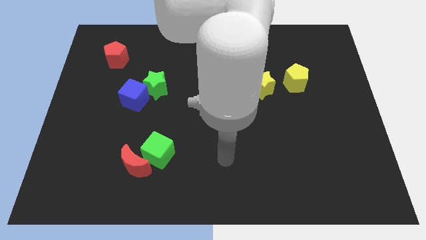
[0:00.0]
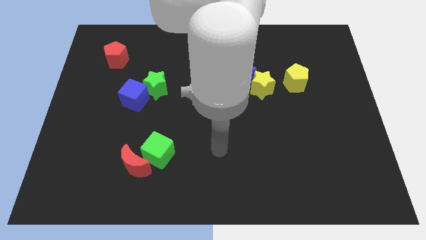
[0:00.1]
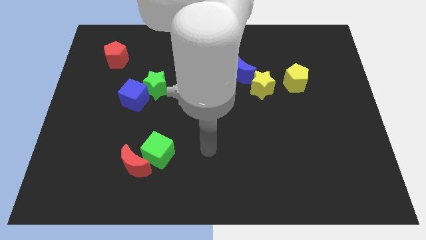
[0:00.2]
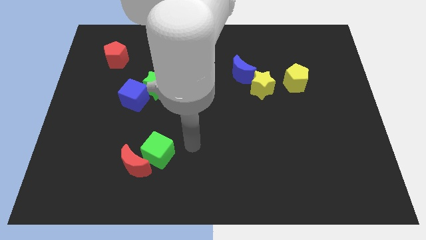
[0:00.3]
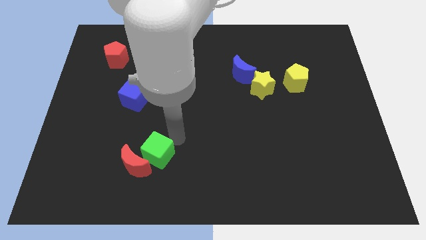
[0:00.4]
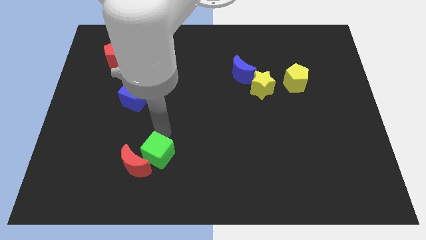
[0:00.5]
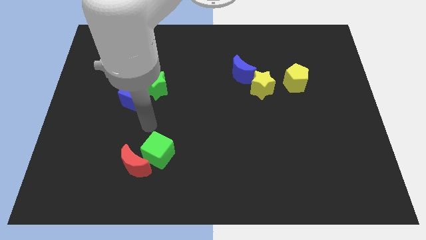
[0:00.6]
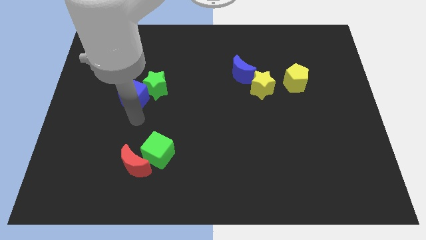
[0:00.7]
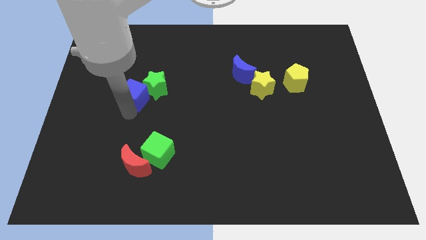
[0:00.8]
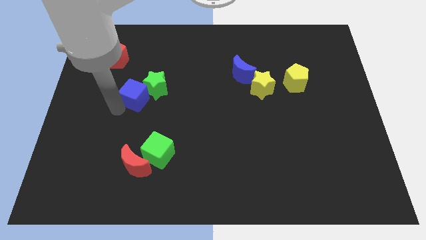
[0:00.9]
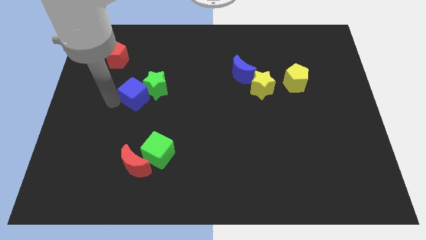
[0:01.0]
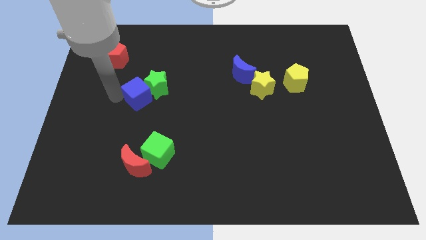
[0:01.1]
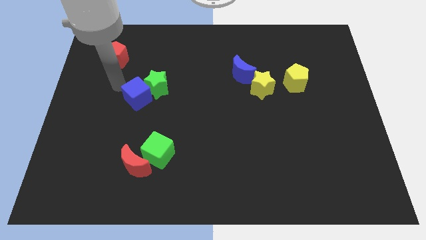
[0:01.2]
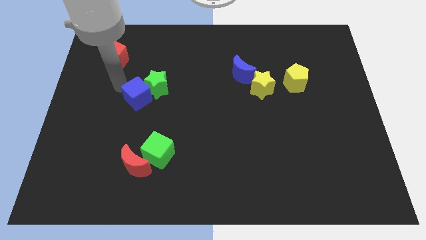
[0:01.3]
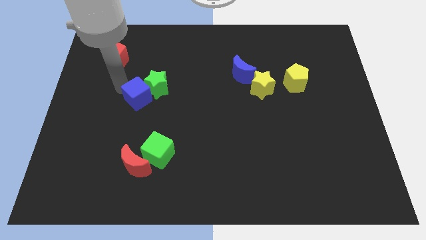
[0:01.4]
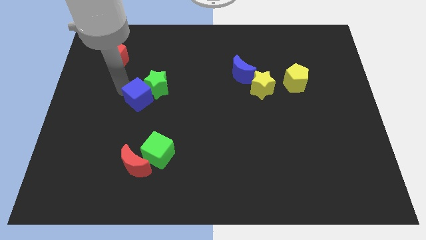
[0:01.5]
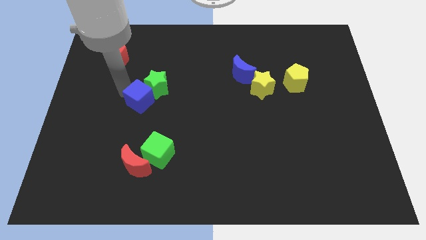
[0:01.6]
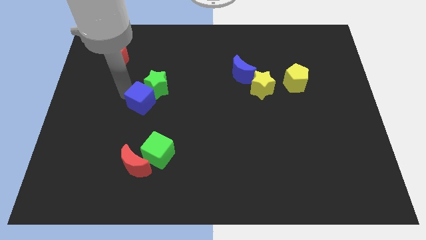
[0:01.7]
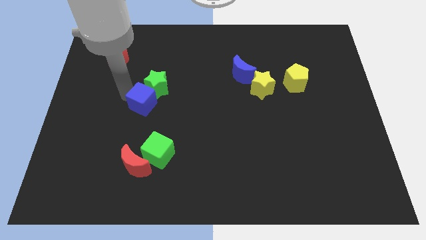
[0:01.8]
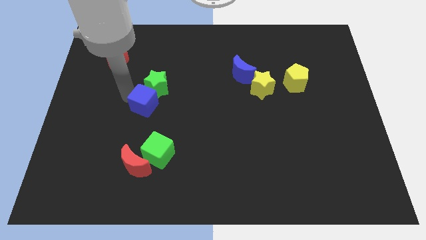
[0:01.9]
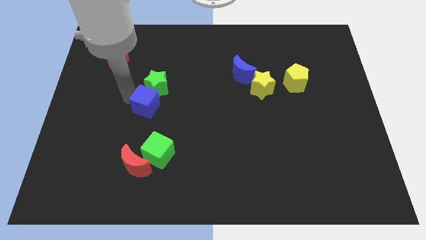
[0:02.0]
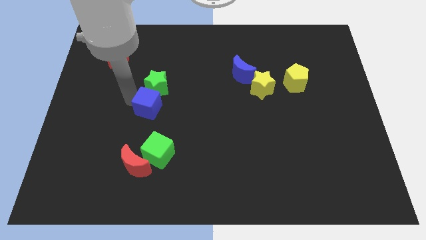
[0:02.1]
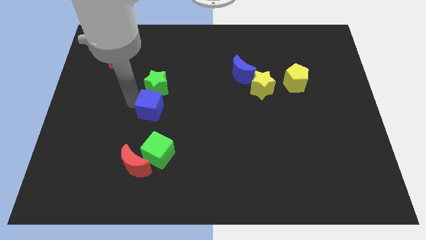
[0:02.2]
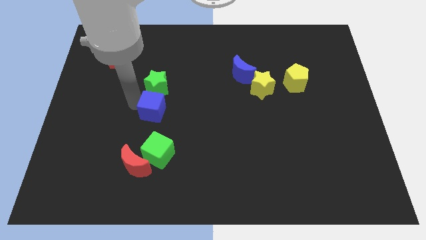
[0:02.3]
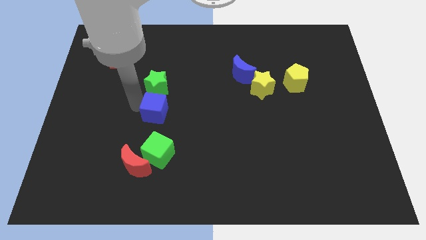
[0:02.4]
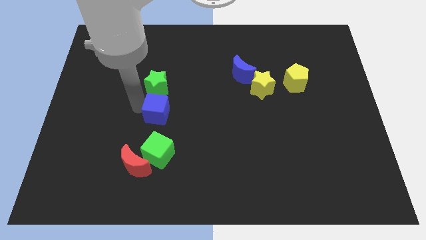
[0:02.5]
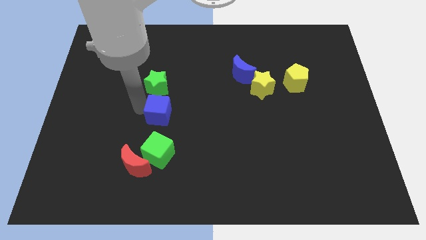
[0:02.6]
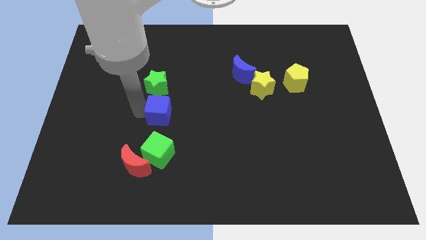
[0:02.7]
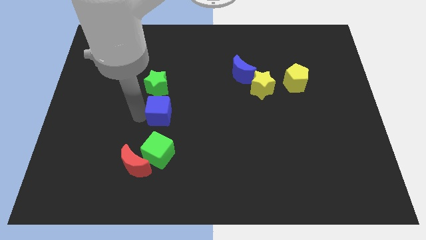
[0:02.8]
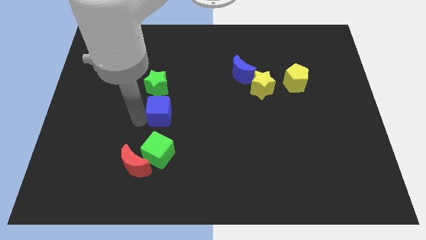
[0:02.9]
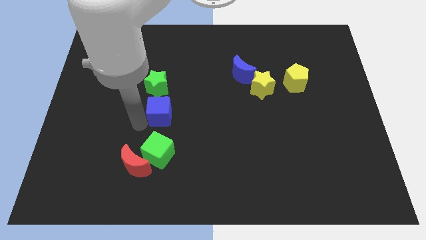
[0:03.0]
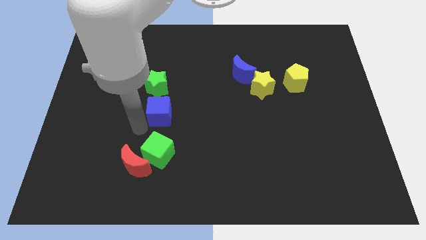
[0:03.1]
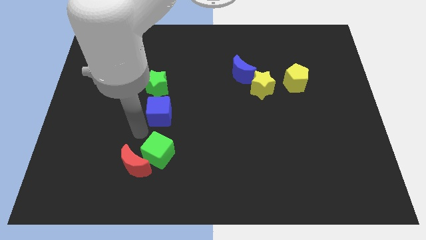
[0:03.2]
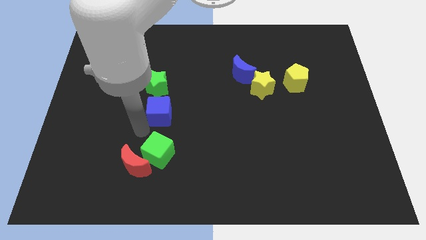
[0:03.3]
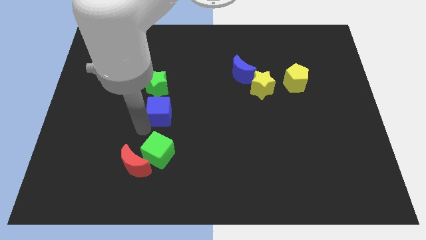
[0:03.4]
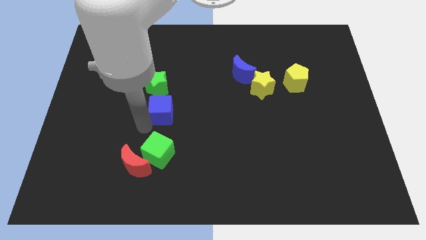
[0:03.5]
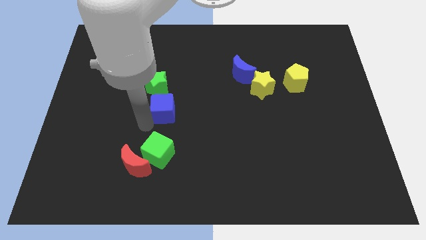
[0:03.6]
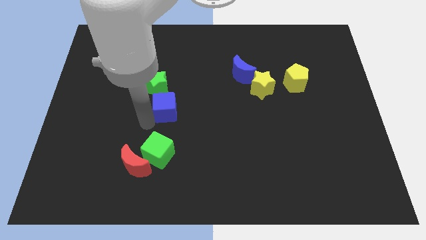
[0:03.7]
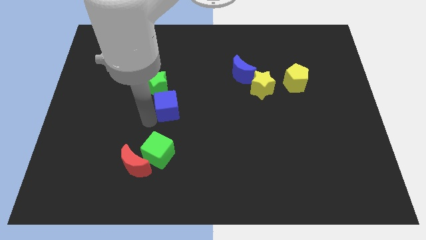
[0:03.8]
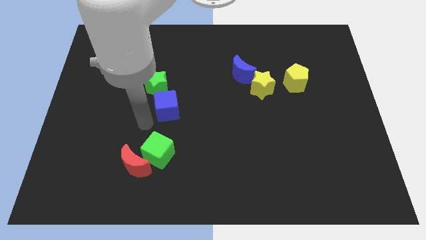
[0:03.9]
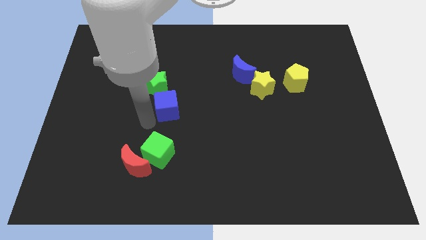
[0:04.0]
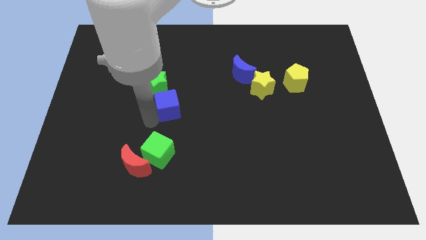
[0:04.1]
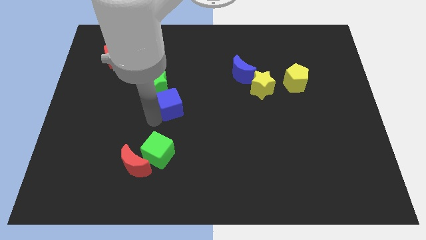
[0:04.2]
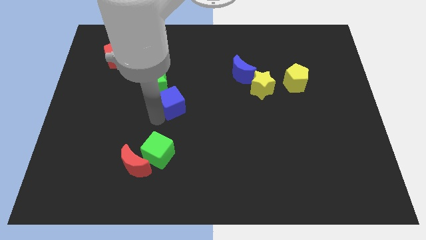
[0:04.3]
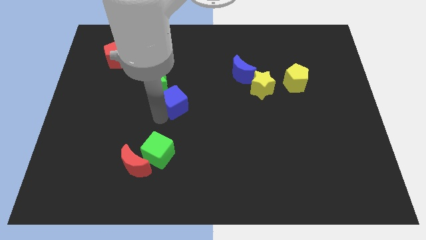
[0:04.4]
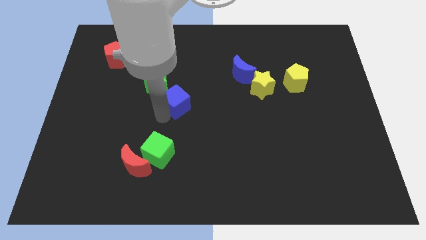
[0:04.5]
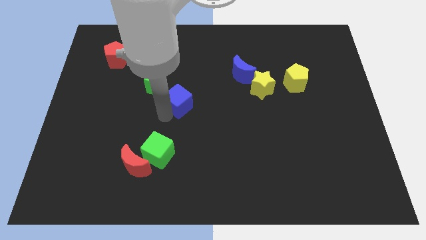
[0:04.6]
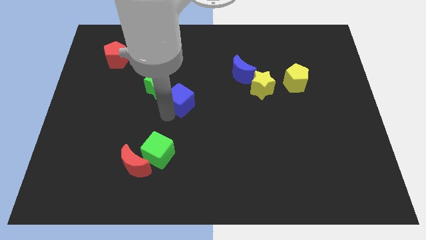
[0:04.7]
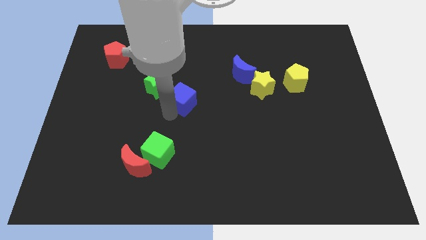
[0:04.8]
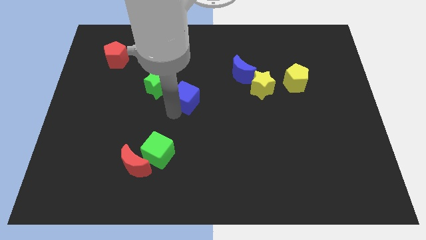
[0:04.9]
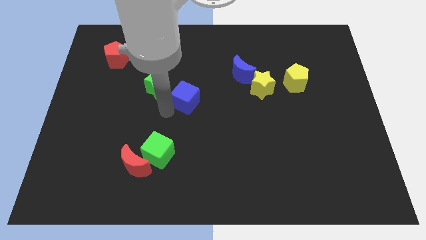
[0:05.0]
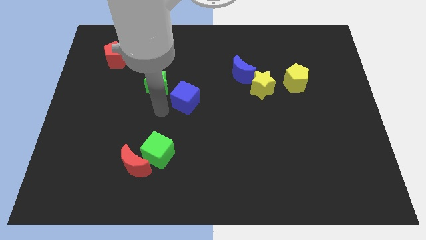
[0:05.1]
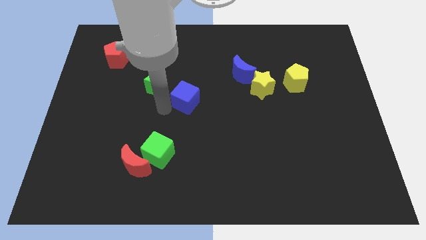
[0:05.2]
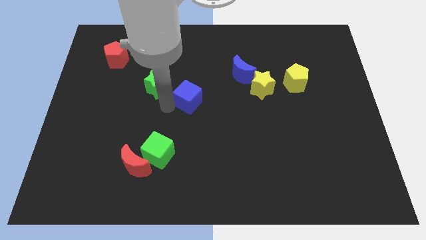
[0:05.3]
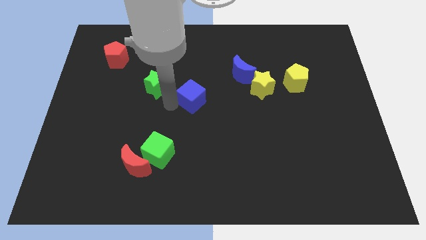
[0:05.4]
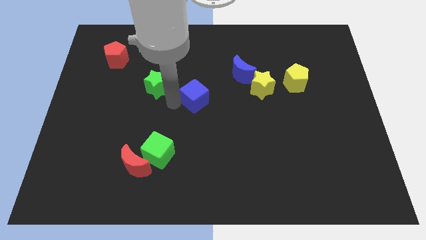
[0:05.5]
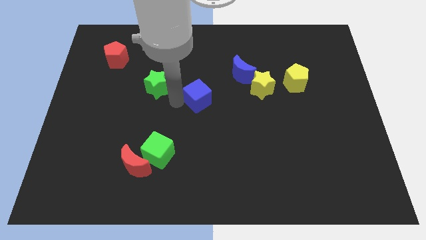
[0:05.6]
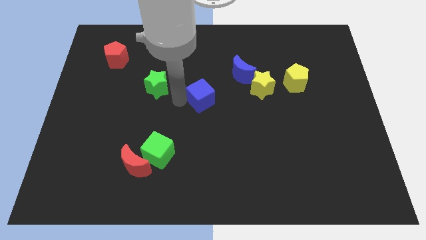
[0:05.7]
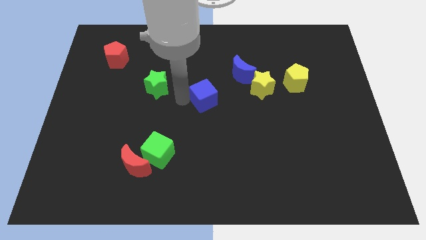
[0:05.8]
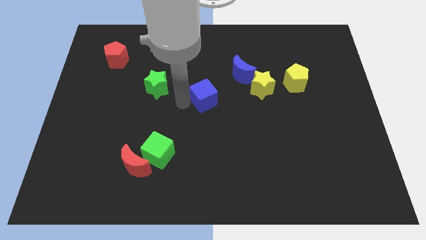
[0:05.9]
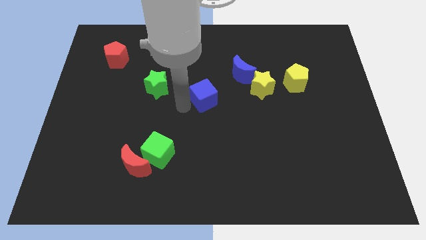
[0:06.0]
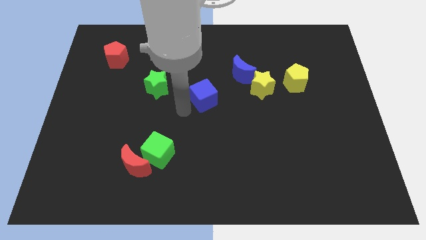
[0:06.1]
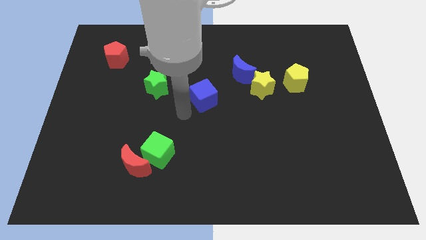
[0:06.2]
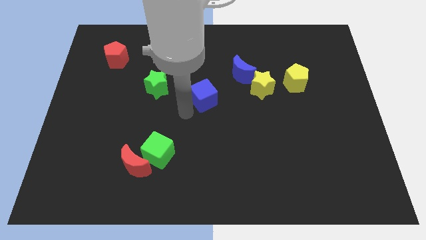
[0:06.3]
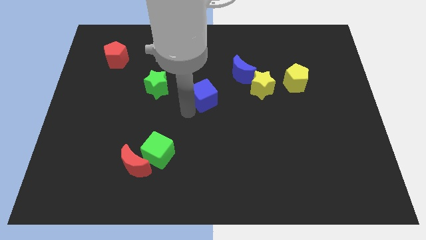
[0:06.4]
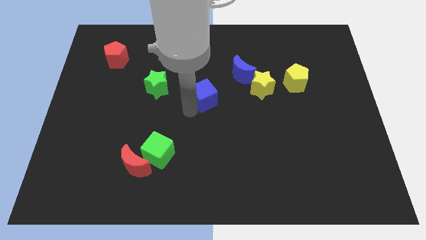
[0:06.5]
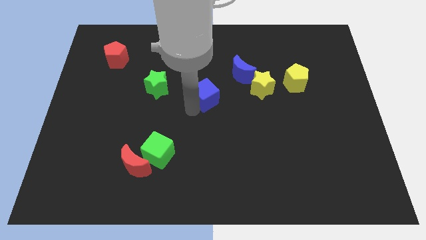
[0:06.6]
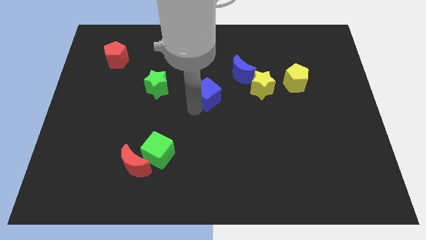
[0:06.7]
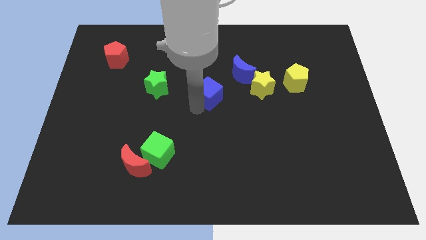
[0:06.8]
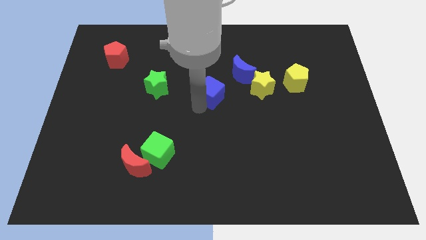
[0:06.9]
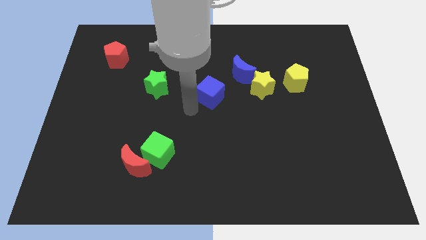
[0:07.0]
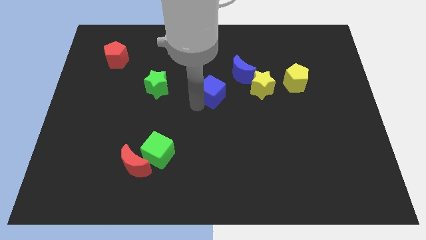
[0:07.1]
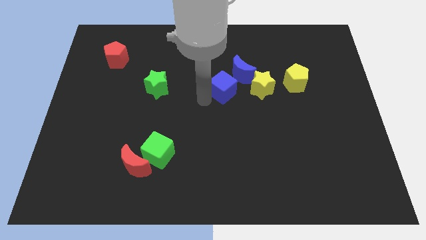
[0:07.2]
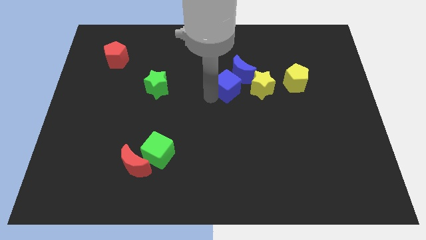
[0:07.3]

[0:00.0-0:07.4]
slide the blue cube to the blue moon
